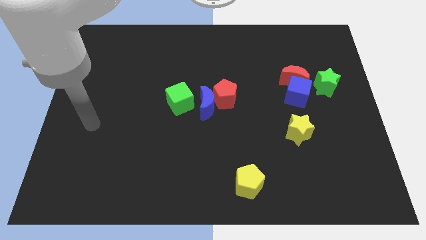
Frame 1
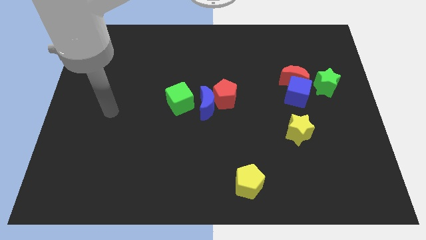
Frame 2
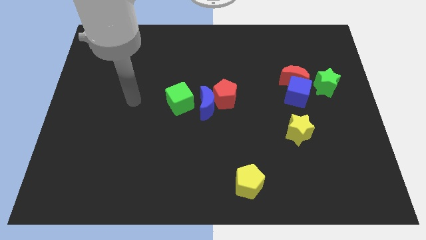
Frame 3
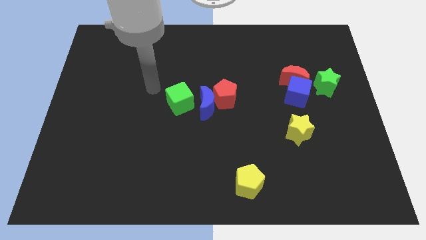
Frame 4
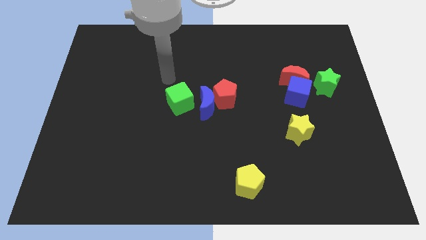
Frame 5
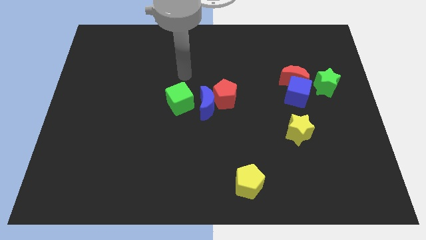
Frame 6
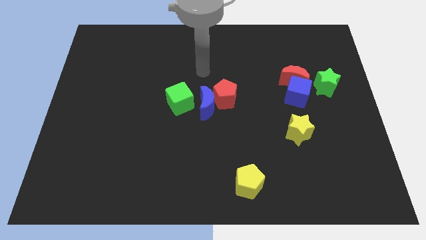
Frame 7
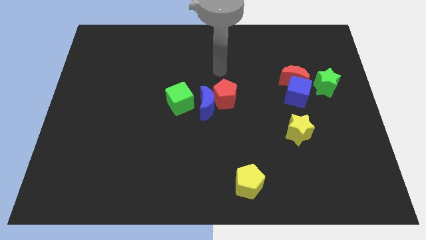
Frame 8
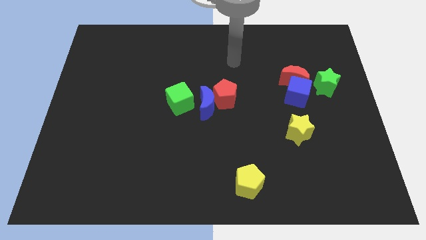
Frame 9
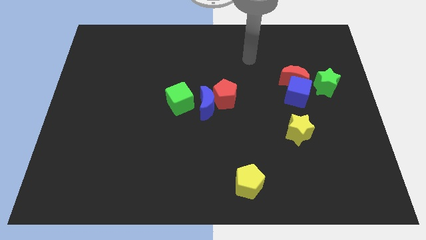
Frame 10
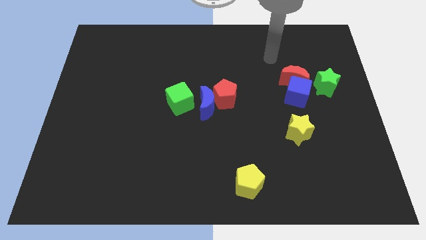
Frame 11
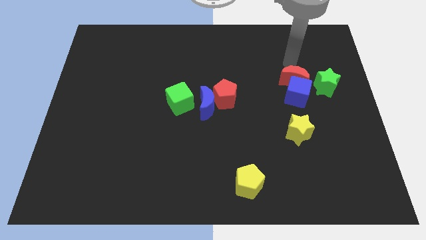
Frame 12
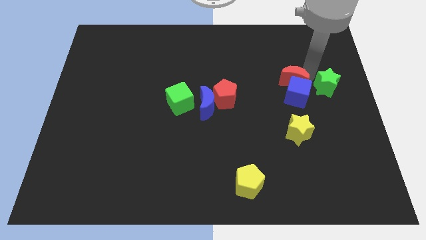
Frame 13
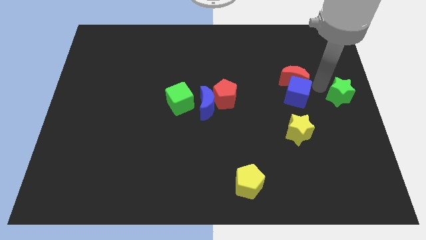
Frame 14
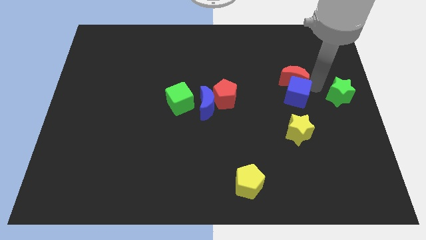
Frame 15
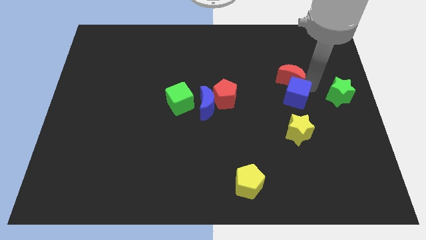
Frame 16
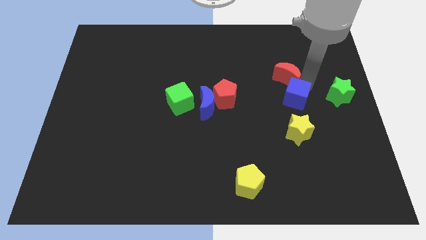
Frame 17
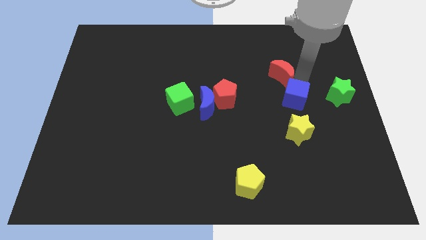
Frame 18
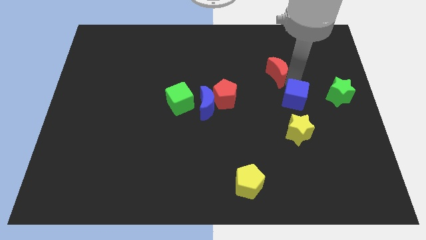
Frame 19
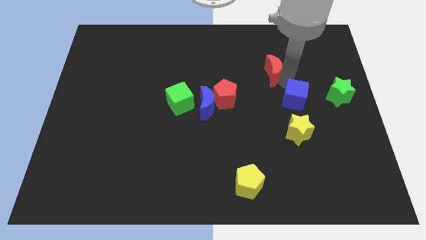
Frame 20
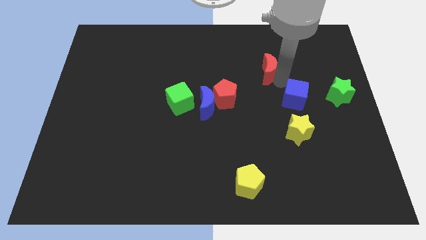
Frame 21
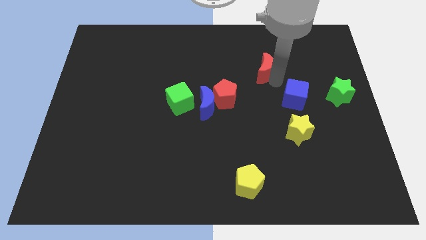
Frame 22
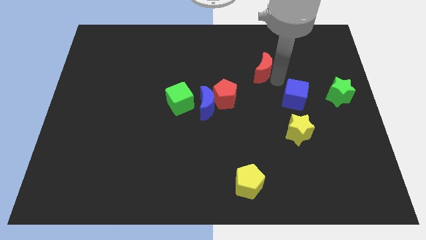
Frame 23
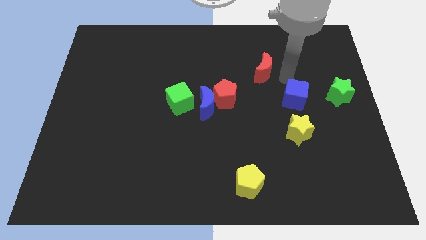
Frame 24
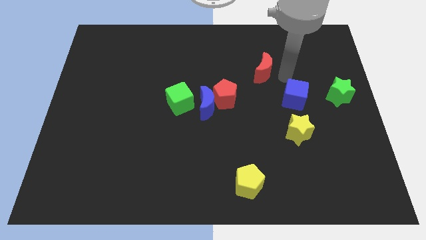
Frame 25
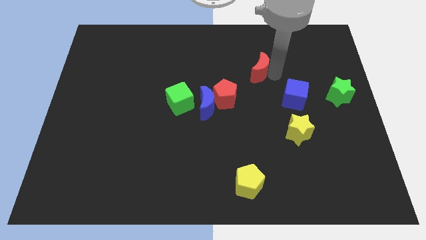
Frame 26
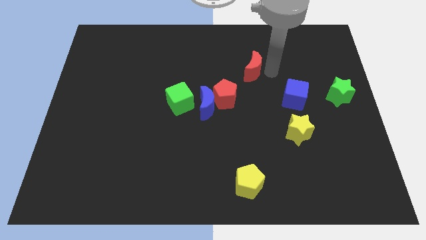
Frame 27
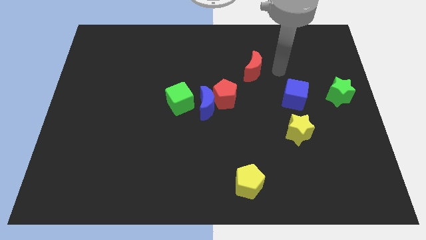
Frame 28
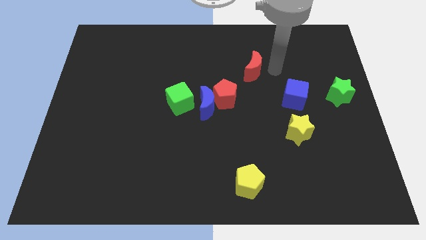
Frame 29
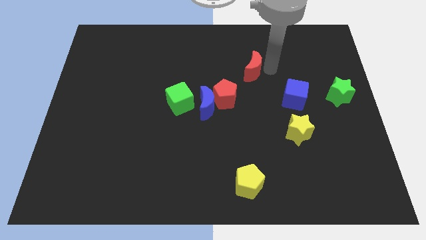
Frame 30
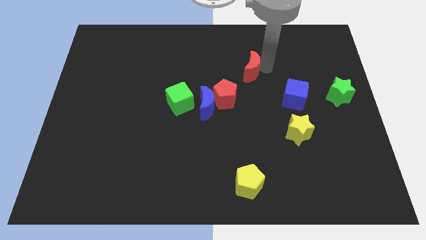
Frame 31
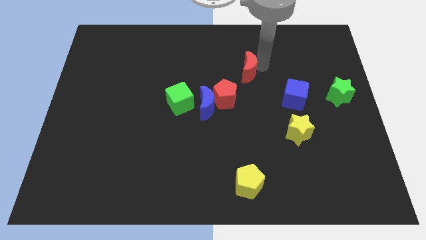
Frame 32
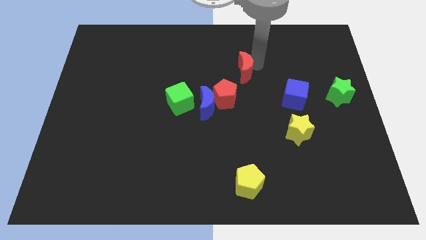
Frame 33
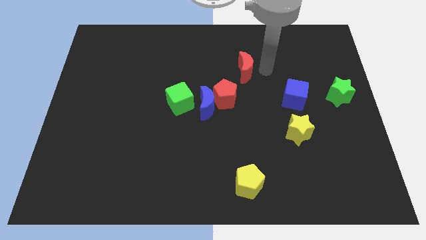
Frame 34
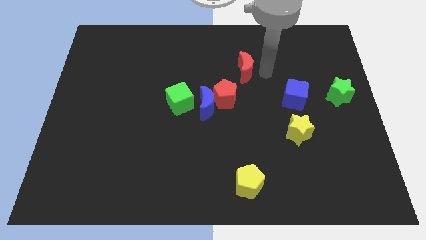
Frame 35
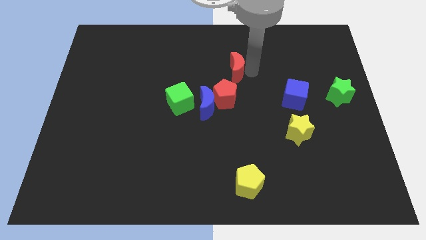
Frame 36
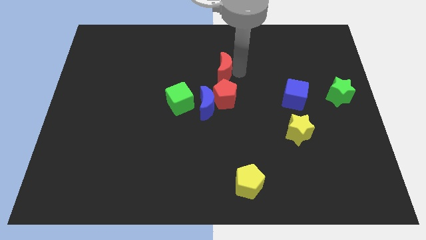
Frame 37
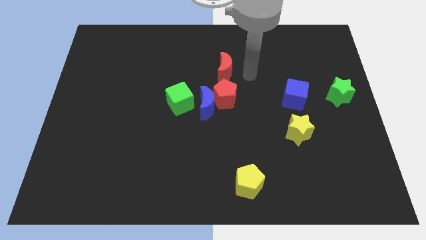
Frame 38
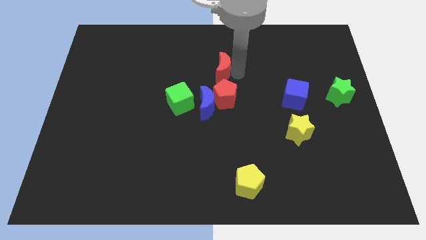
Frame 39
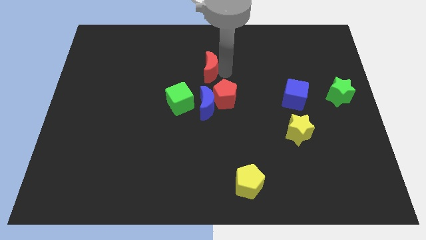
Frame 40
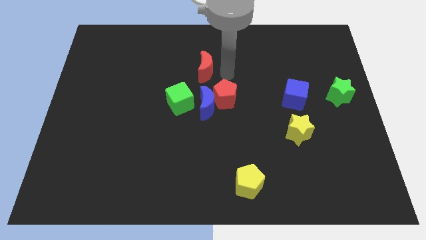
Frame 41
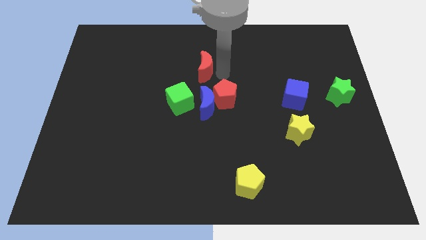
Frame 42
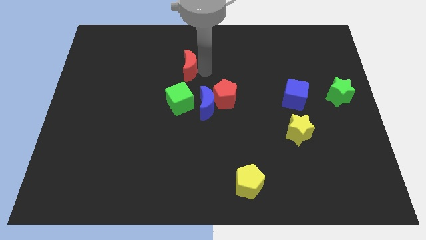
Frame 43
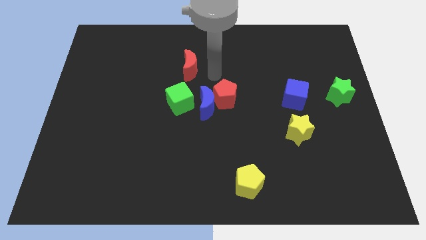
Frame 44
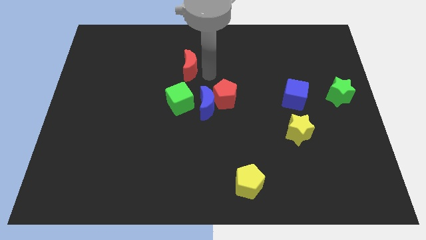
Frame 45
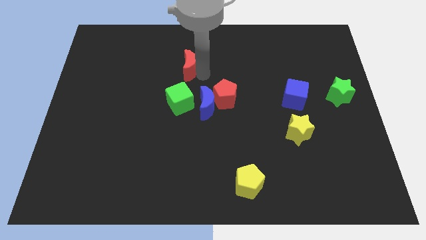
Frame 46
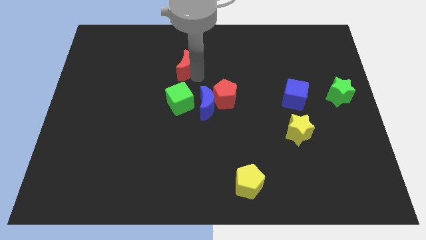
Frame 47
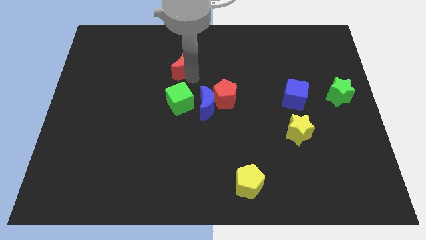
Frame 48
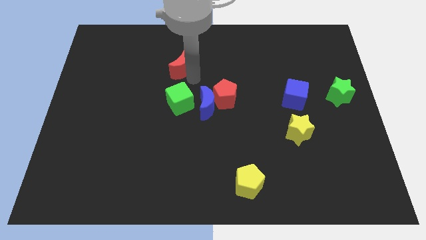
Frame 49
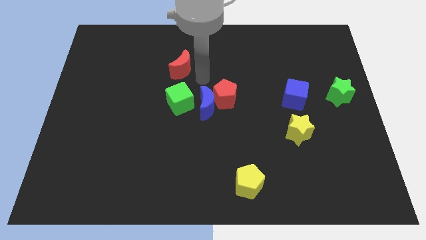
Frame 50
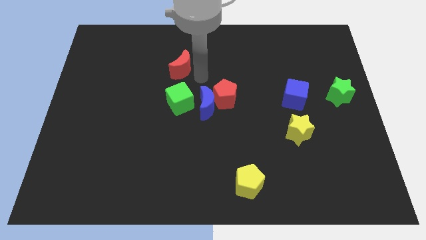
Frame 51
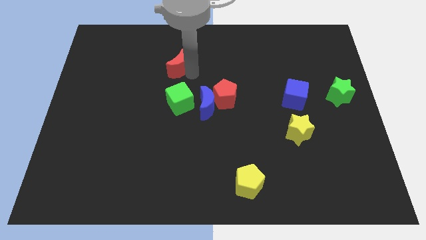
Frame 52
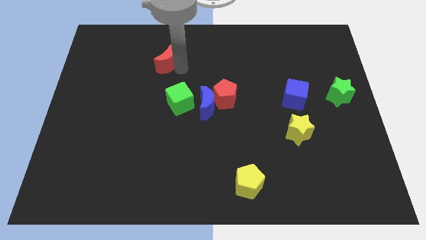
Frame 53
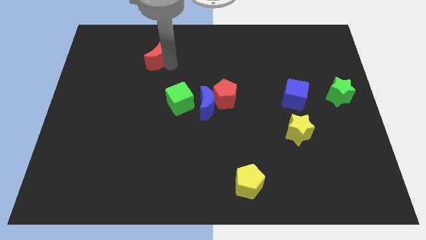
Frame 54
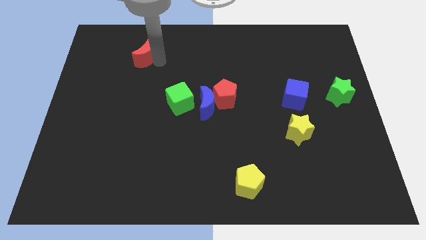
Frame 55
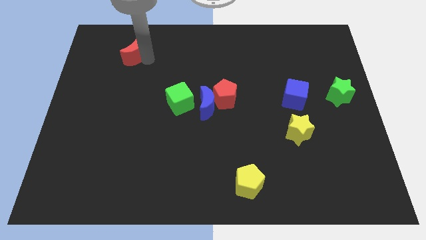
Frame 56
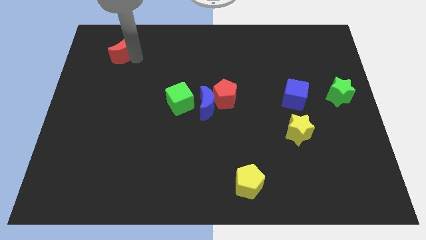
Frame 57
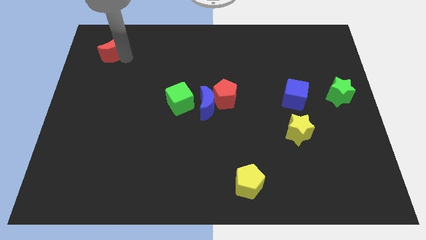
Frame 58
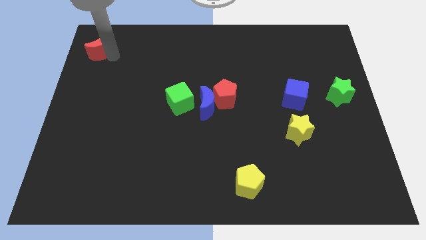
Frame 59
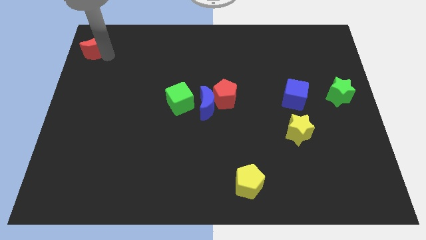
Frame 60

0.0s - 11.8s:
put the red moon to the top left

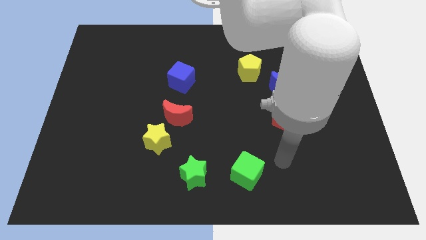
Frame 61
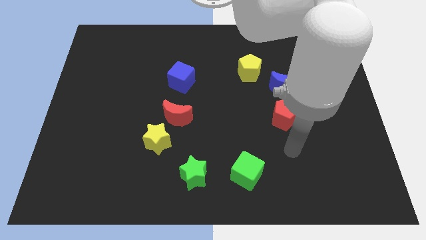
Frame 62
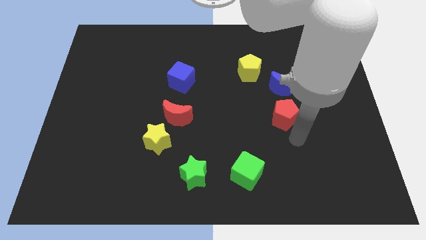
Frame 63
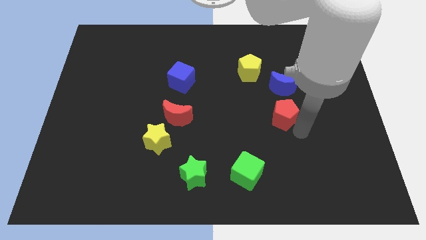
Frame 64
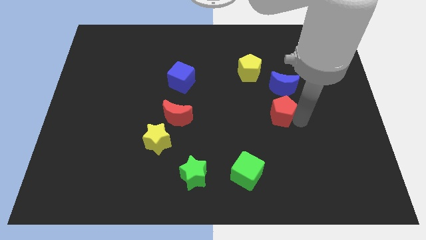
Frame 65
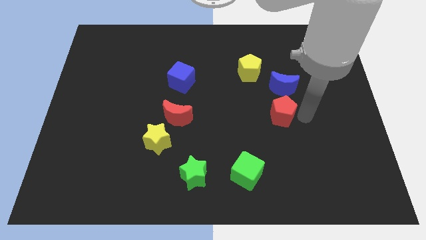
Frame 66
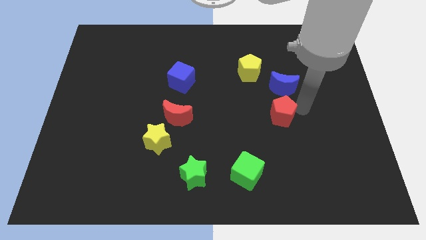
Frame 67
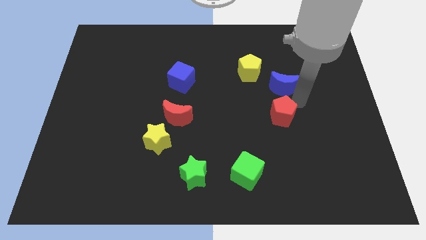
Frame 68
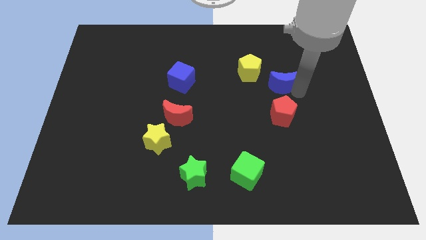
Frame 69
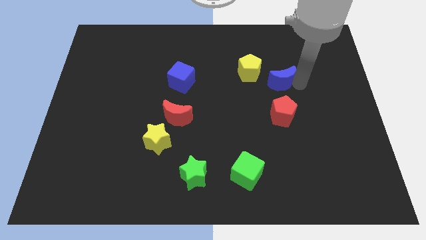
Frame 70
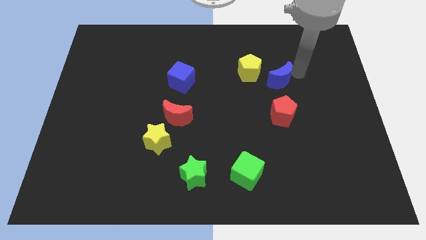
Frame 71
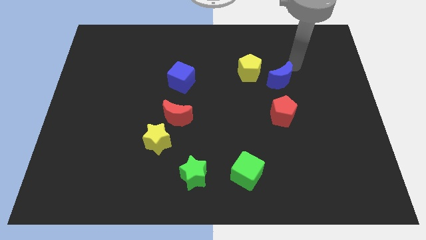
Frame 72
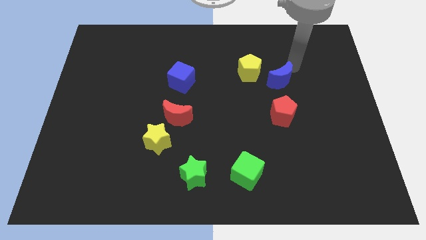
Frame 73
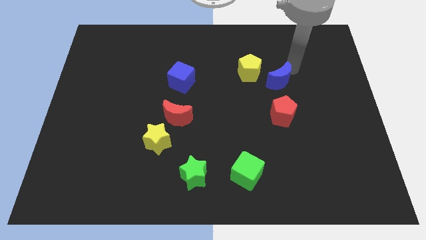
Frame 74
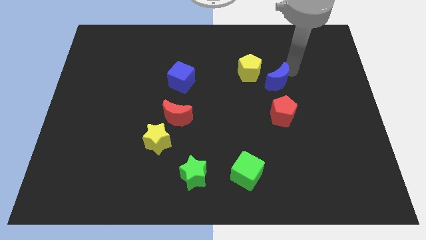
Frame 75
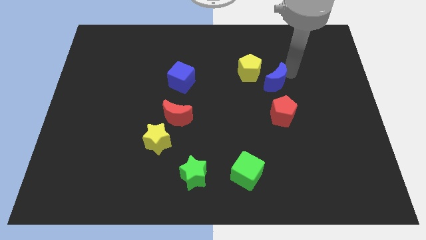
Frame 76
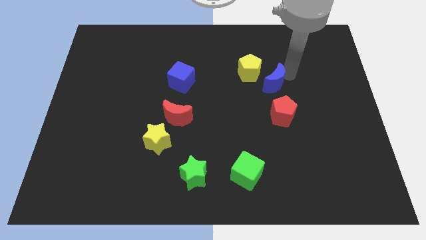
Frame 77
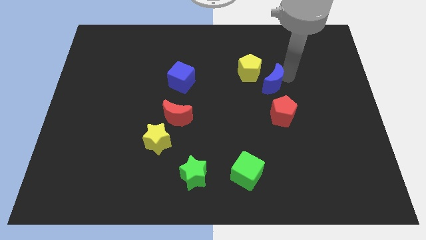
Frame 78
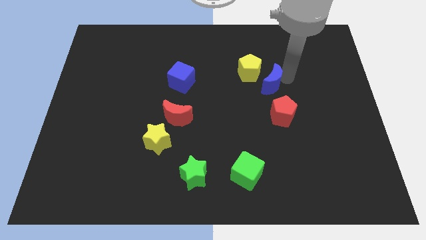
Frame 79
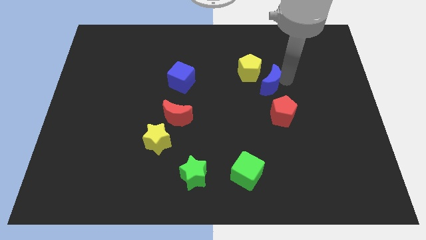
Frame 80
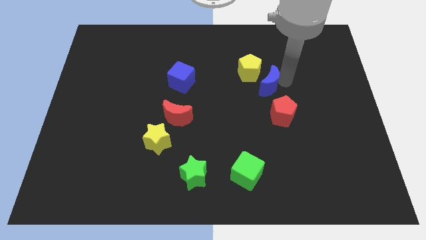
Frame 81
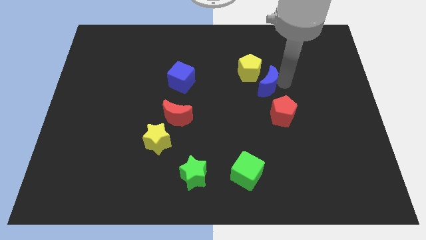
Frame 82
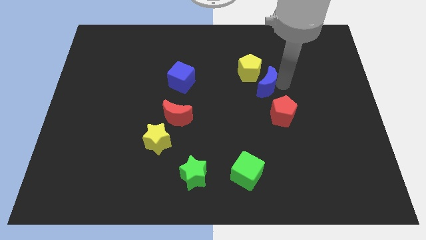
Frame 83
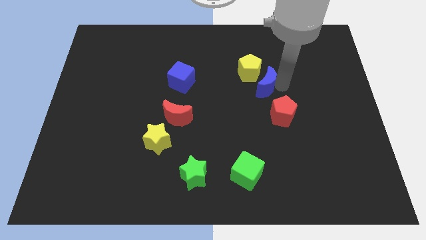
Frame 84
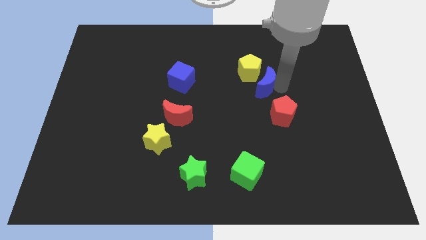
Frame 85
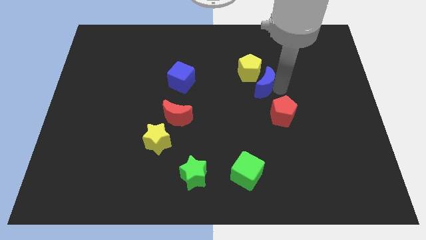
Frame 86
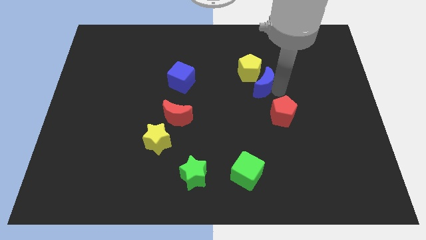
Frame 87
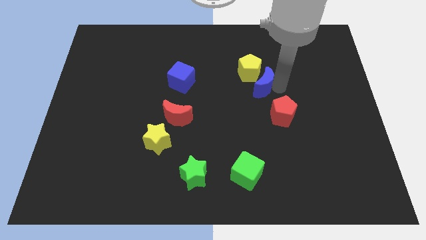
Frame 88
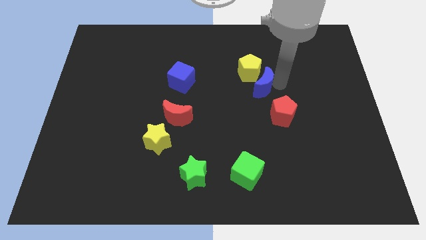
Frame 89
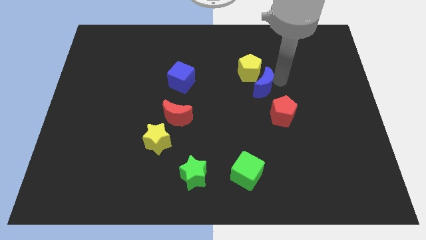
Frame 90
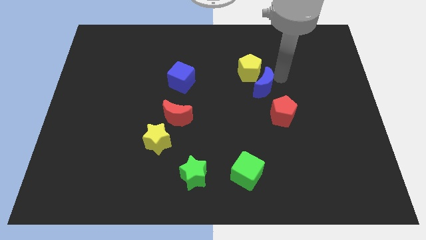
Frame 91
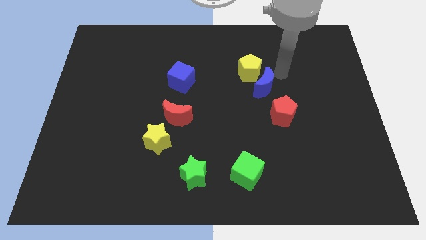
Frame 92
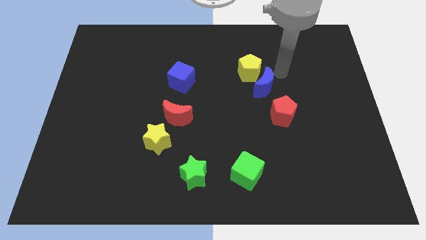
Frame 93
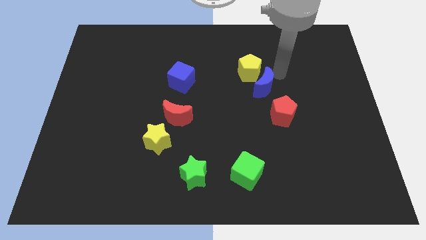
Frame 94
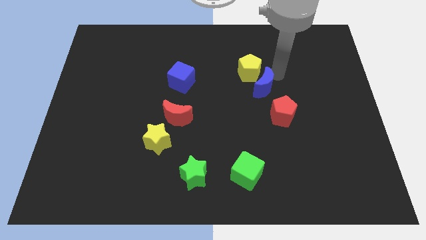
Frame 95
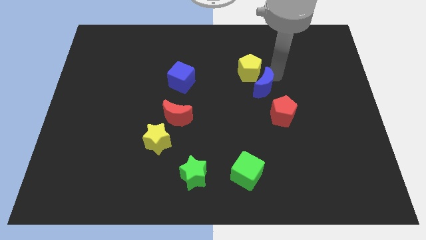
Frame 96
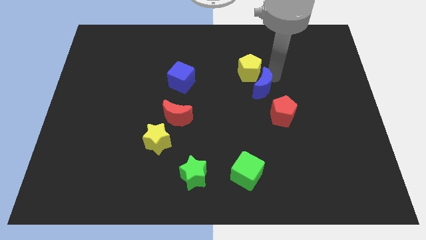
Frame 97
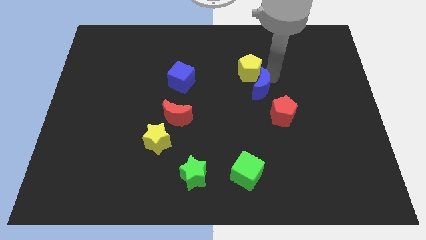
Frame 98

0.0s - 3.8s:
move the blue moon to the center of the board
